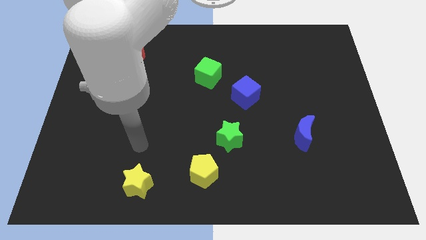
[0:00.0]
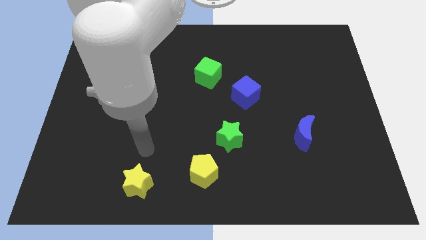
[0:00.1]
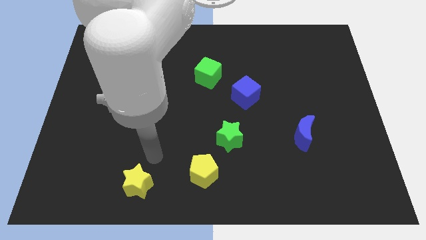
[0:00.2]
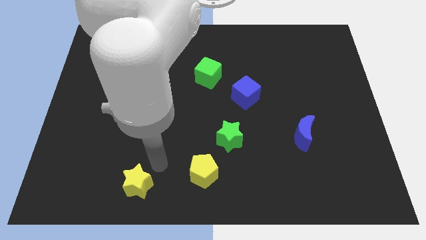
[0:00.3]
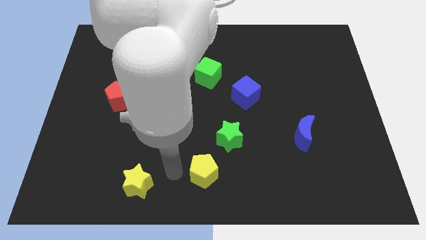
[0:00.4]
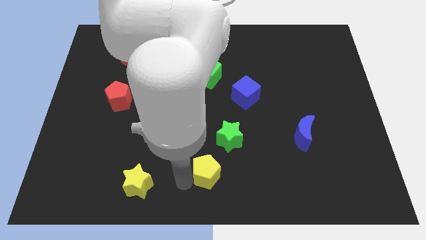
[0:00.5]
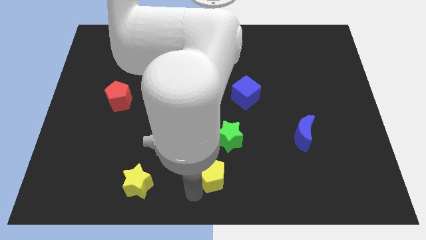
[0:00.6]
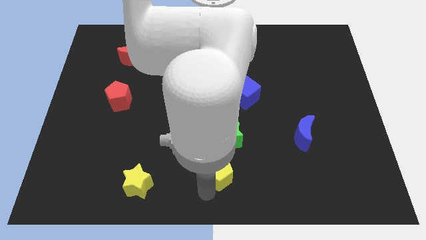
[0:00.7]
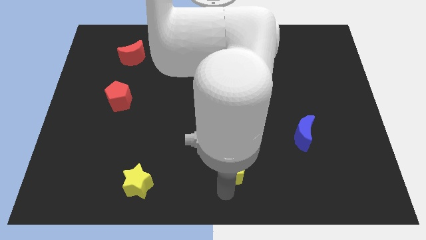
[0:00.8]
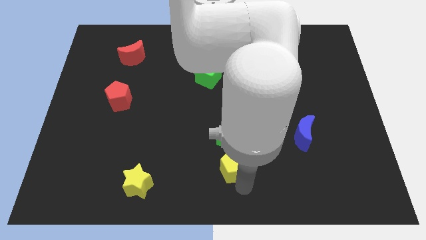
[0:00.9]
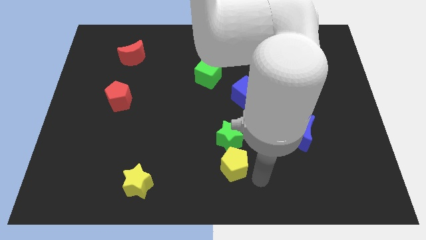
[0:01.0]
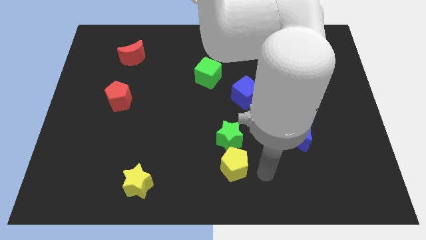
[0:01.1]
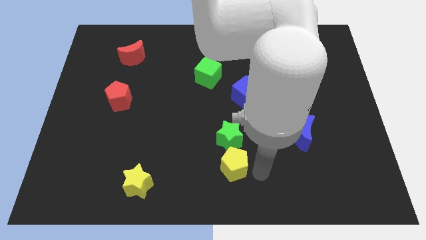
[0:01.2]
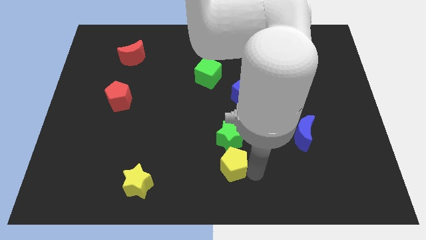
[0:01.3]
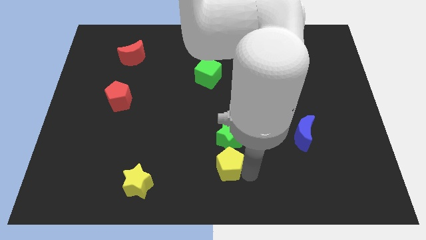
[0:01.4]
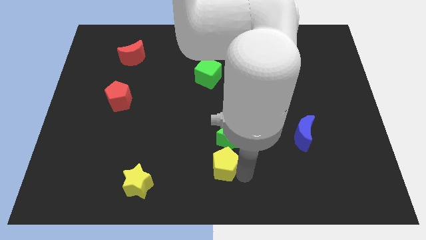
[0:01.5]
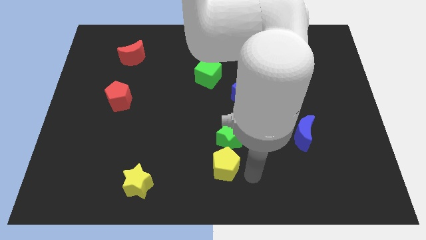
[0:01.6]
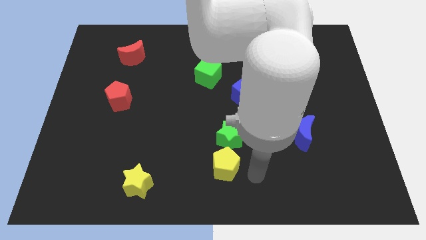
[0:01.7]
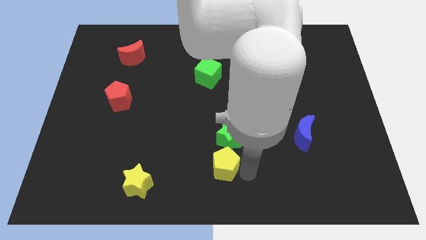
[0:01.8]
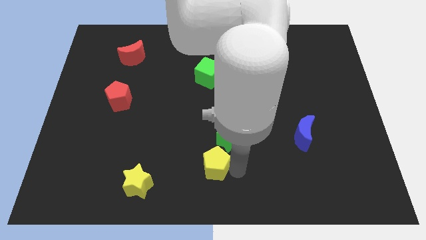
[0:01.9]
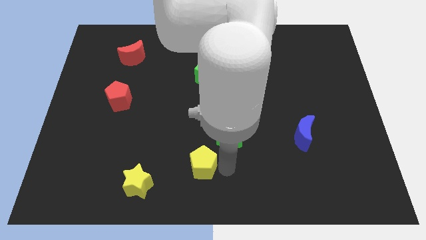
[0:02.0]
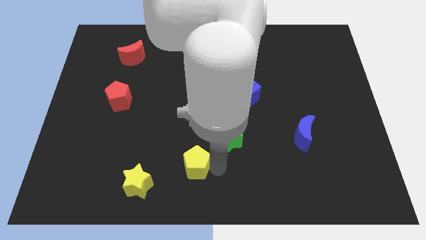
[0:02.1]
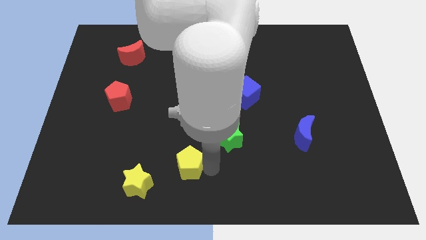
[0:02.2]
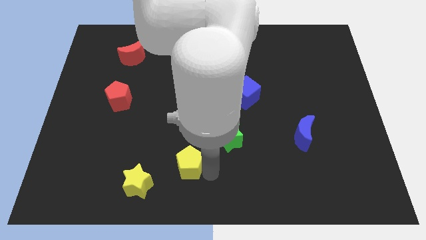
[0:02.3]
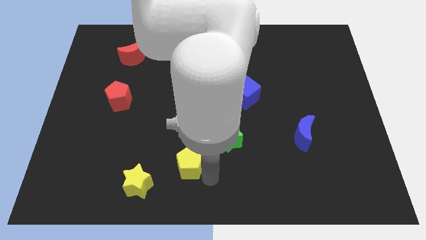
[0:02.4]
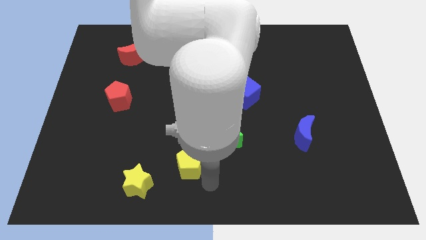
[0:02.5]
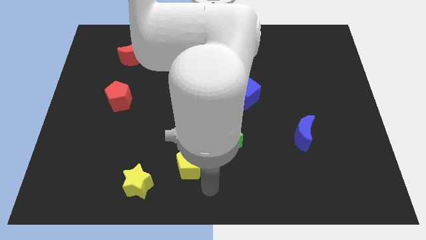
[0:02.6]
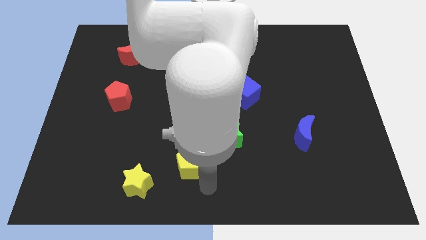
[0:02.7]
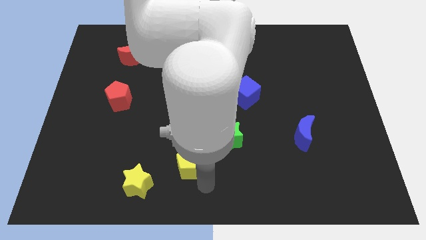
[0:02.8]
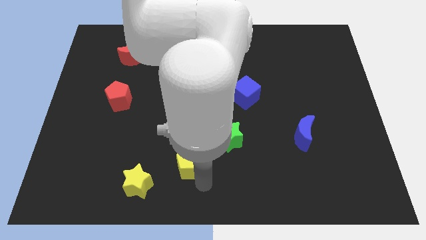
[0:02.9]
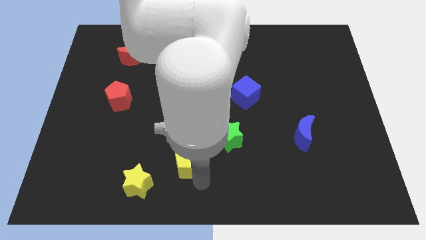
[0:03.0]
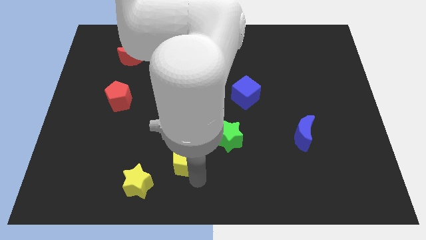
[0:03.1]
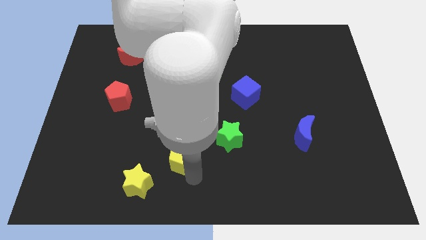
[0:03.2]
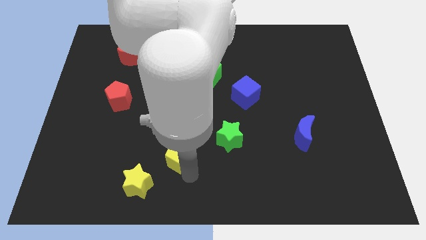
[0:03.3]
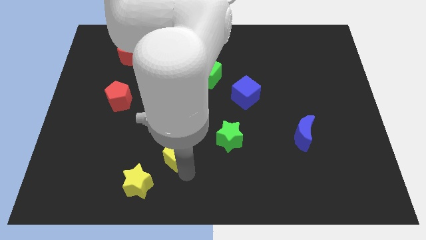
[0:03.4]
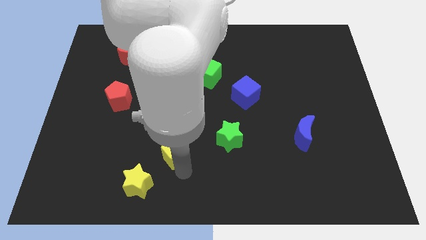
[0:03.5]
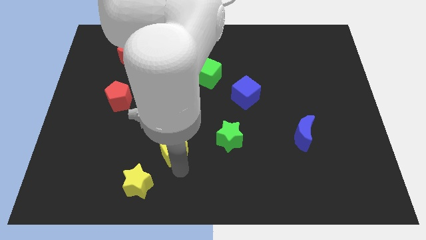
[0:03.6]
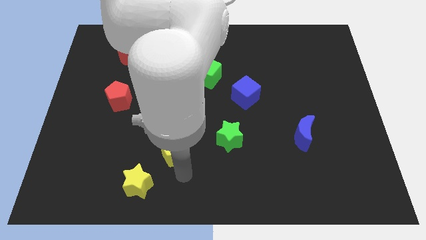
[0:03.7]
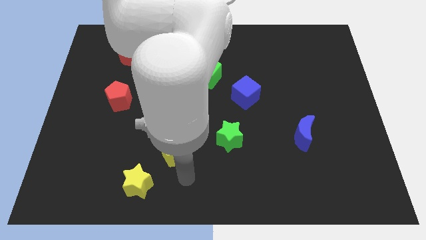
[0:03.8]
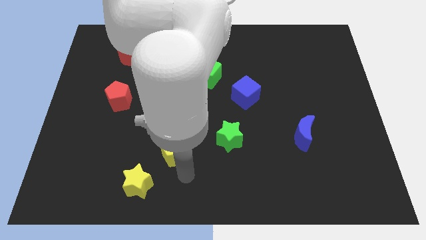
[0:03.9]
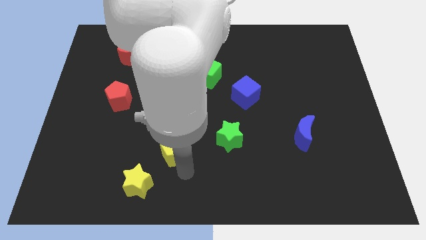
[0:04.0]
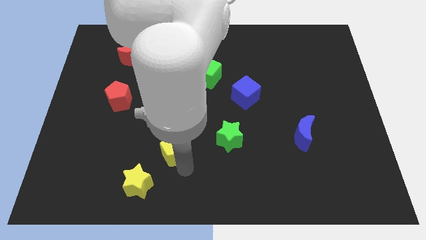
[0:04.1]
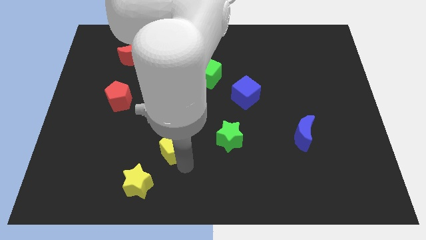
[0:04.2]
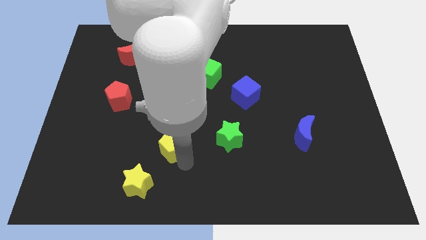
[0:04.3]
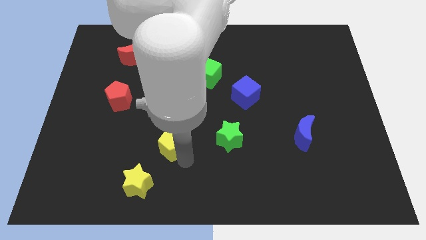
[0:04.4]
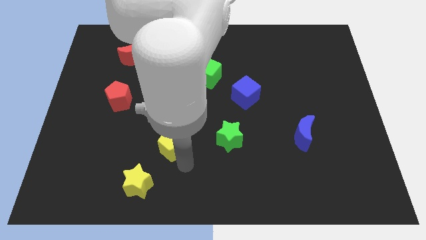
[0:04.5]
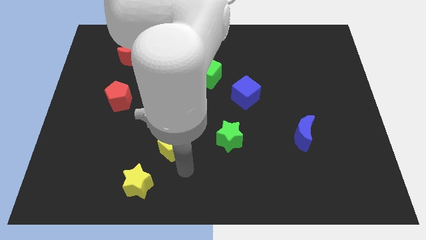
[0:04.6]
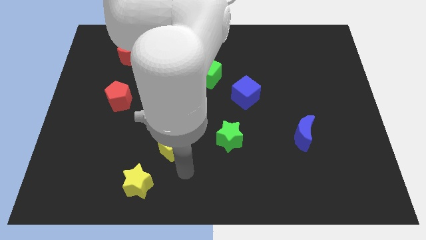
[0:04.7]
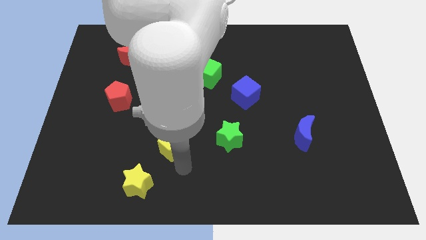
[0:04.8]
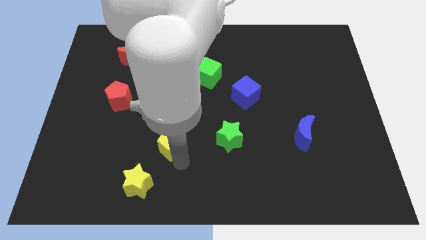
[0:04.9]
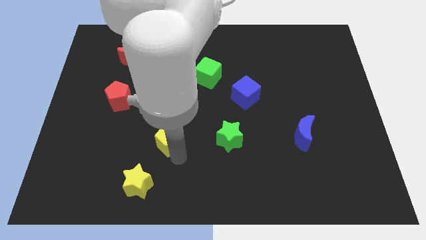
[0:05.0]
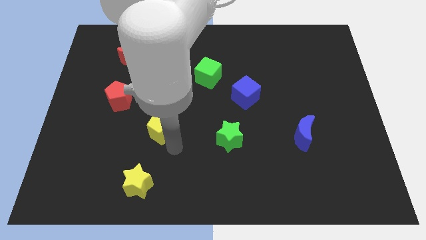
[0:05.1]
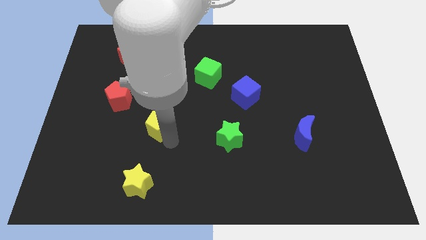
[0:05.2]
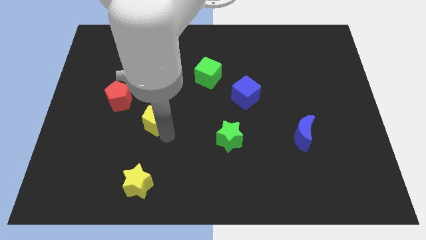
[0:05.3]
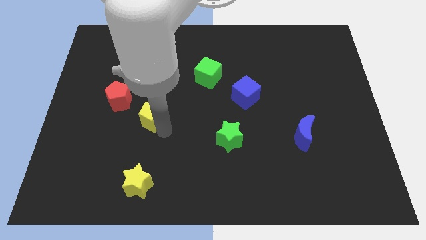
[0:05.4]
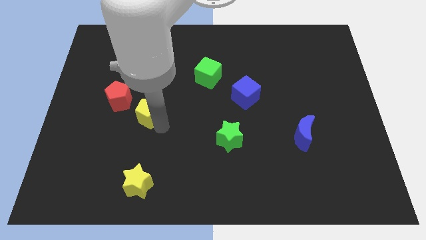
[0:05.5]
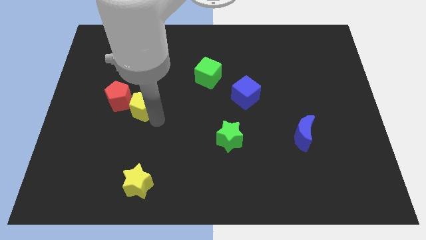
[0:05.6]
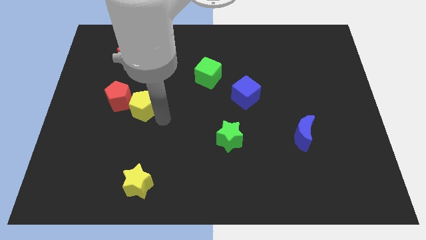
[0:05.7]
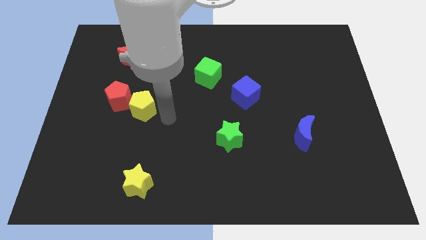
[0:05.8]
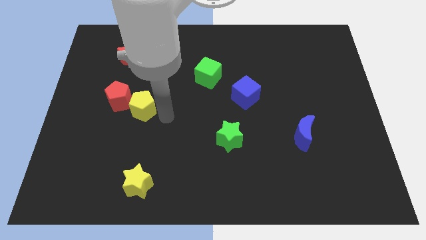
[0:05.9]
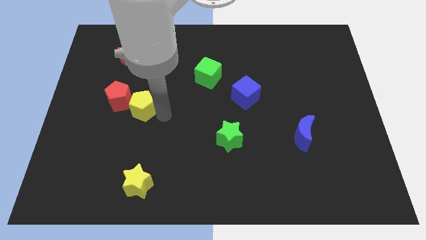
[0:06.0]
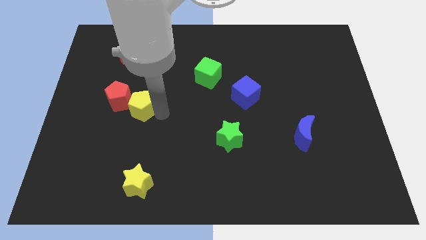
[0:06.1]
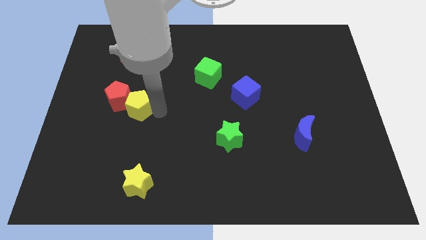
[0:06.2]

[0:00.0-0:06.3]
push the yellow pentagon close to the red pentagon

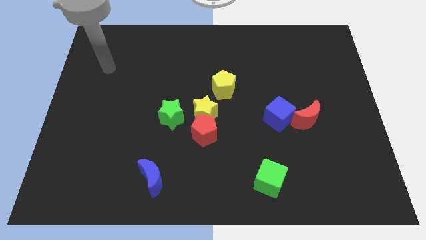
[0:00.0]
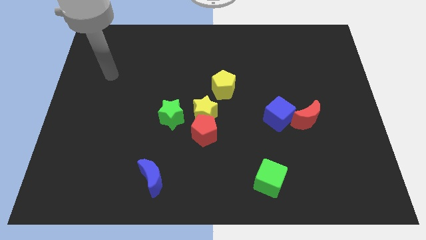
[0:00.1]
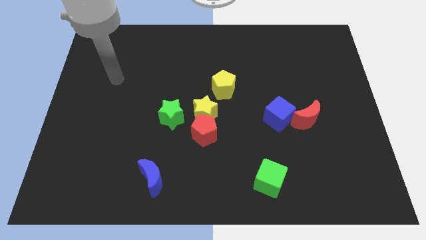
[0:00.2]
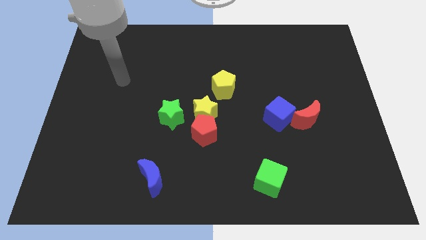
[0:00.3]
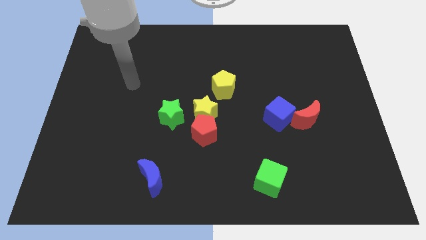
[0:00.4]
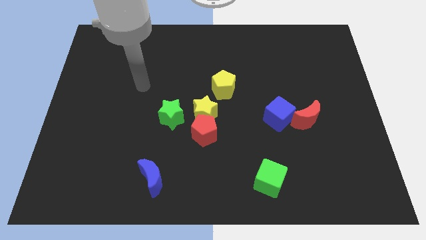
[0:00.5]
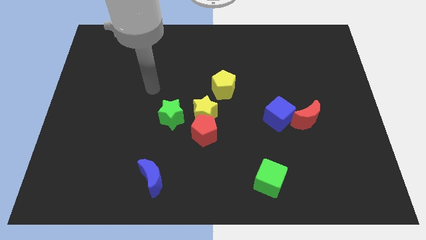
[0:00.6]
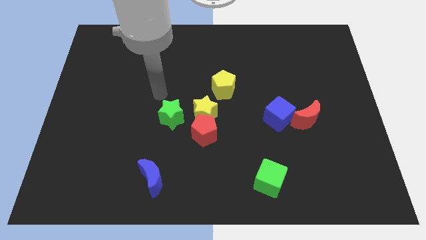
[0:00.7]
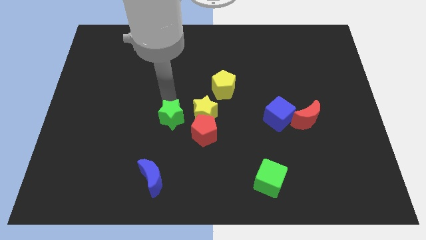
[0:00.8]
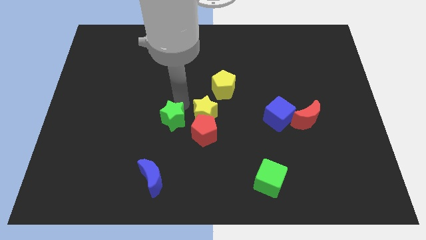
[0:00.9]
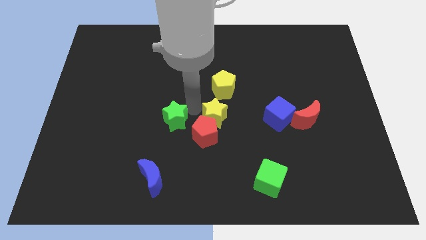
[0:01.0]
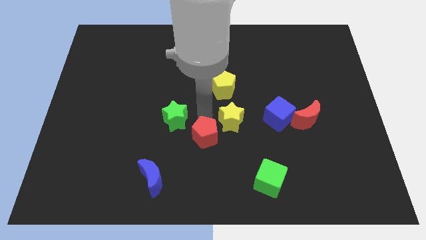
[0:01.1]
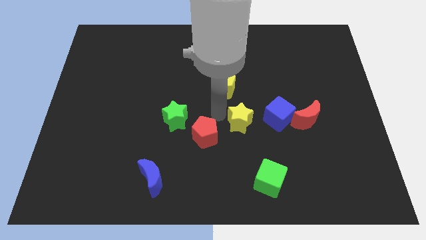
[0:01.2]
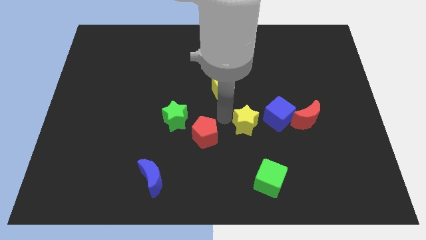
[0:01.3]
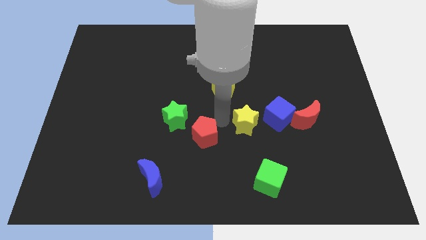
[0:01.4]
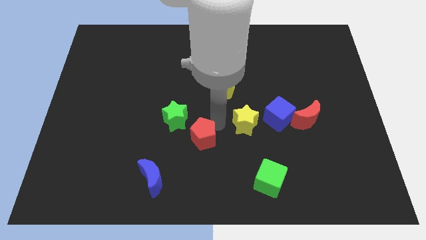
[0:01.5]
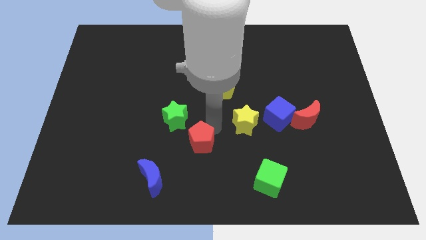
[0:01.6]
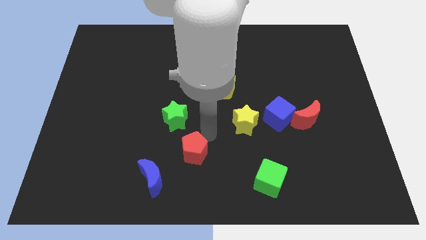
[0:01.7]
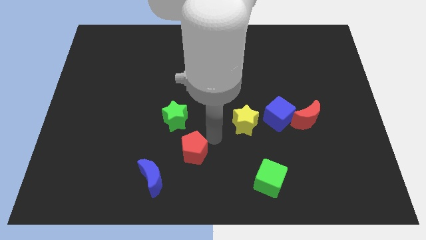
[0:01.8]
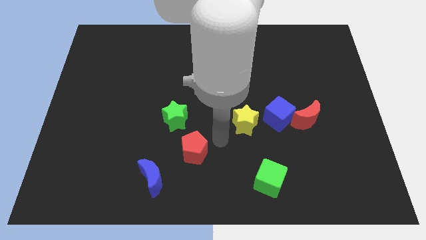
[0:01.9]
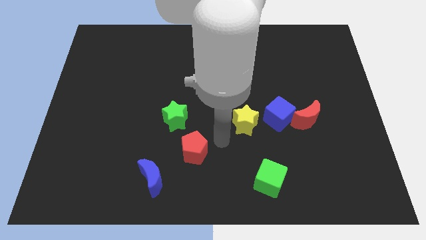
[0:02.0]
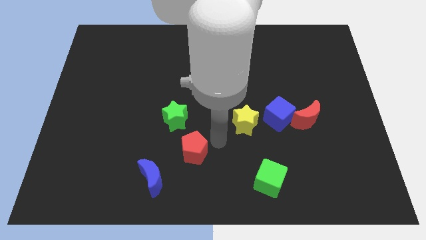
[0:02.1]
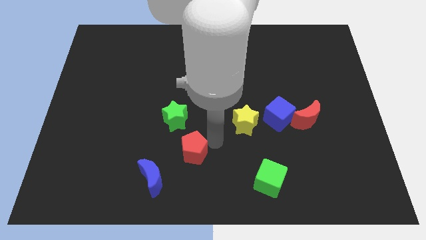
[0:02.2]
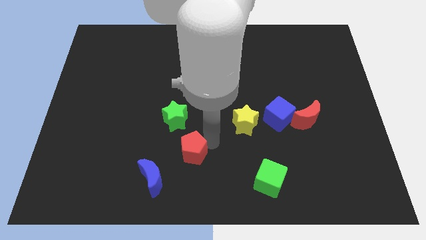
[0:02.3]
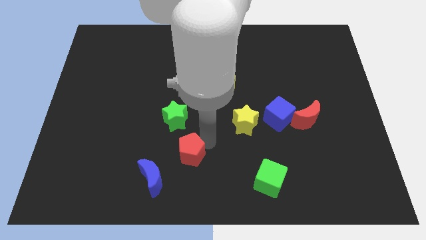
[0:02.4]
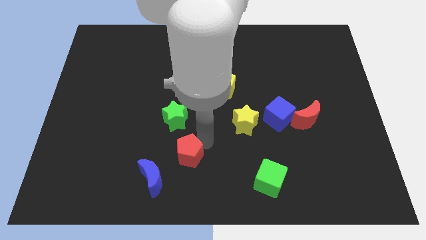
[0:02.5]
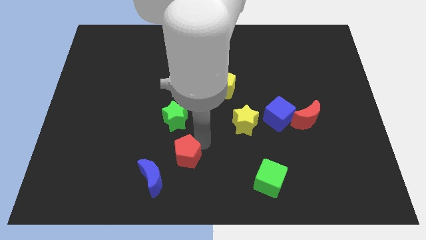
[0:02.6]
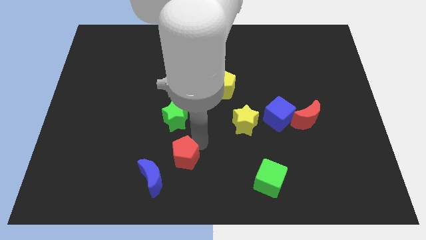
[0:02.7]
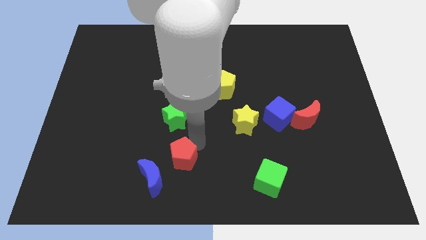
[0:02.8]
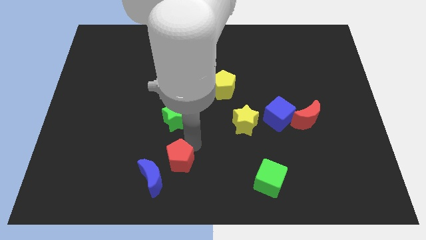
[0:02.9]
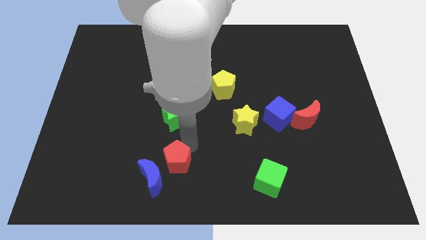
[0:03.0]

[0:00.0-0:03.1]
push the red pentagon close to the blue moon
